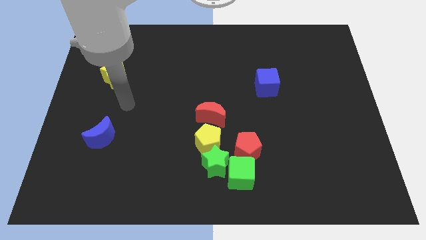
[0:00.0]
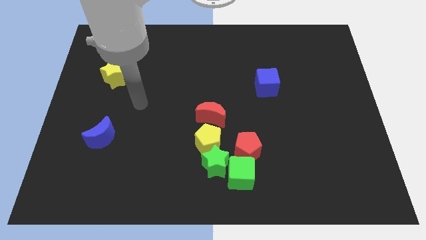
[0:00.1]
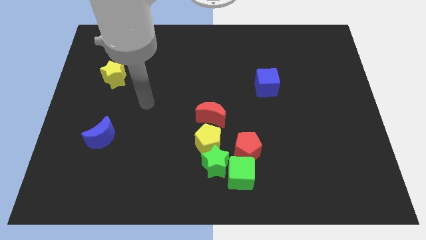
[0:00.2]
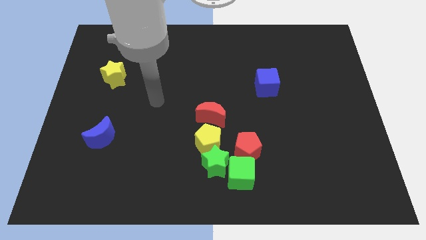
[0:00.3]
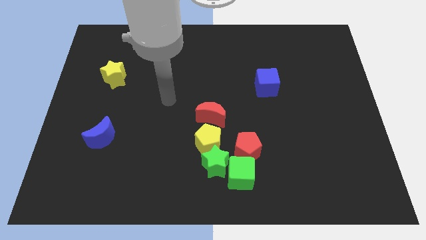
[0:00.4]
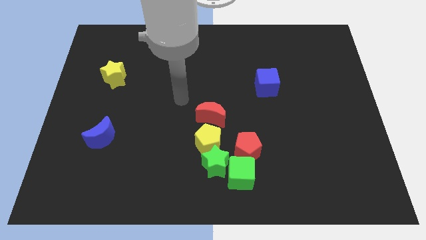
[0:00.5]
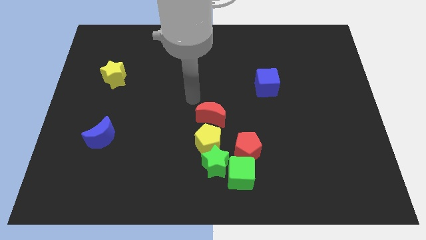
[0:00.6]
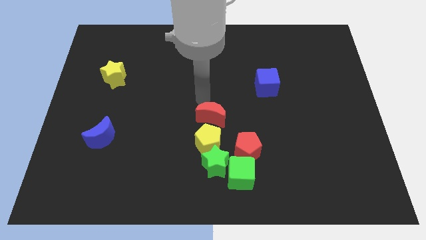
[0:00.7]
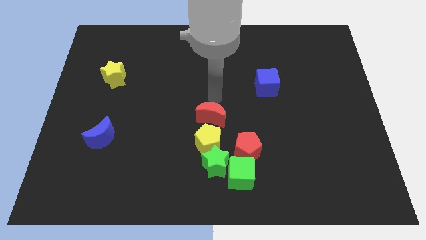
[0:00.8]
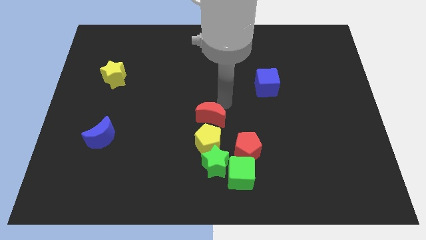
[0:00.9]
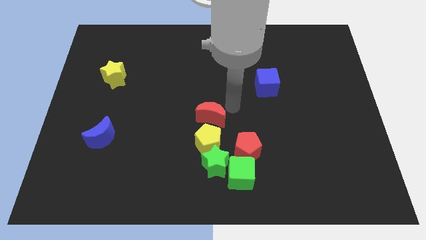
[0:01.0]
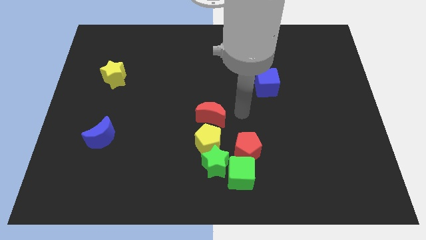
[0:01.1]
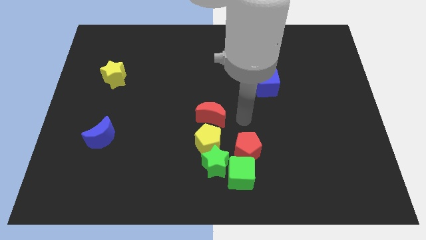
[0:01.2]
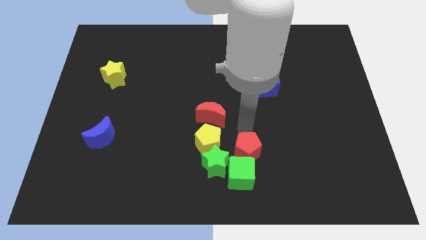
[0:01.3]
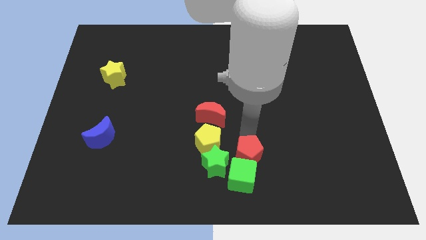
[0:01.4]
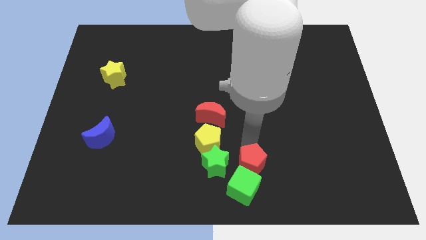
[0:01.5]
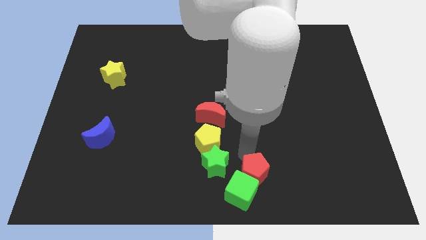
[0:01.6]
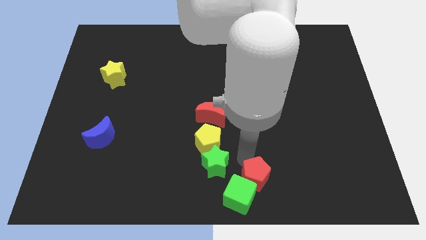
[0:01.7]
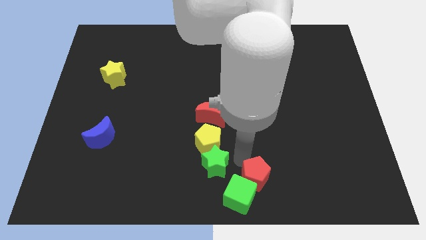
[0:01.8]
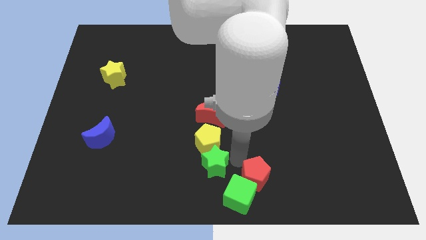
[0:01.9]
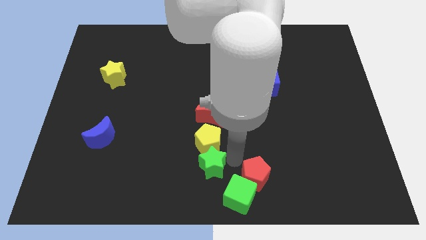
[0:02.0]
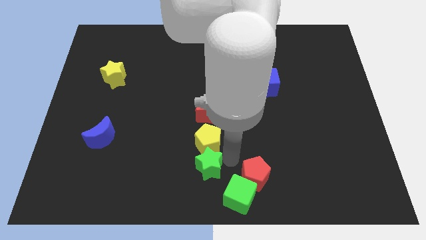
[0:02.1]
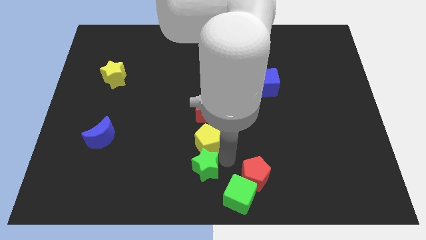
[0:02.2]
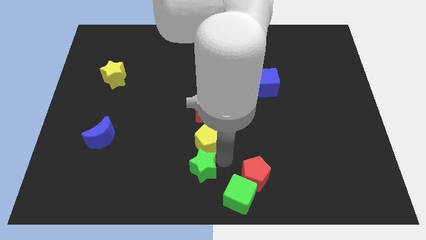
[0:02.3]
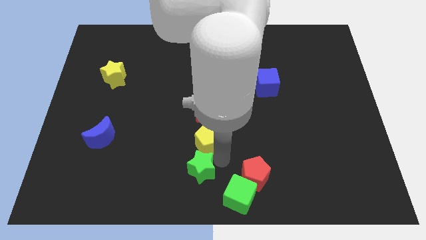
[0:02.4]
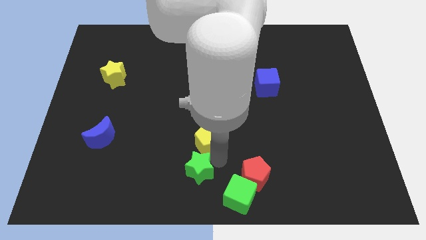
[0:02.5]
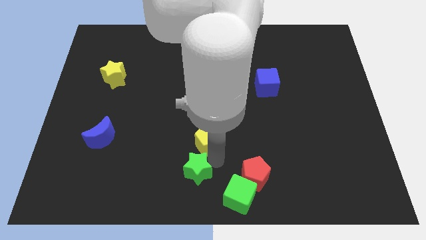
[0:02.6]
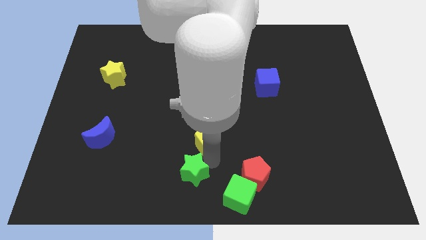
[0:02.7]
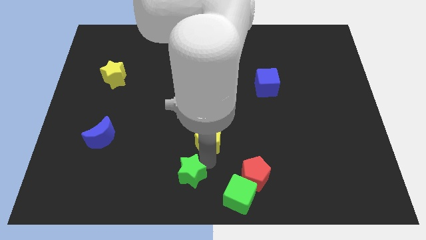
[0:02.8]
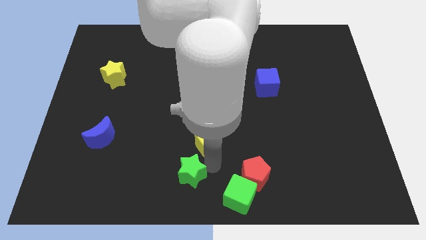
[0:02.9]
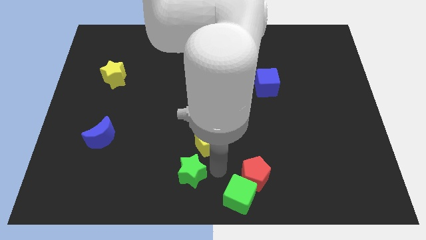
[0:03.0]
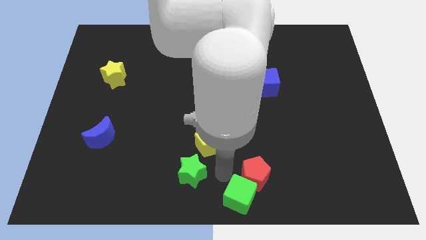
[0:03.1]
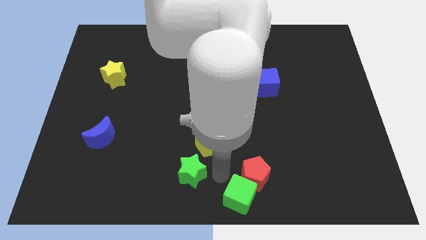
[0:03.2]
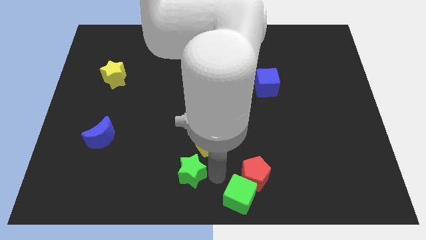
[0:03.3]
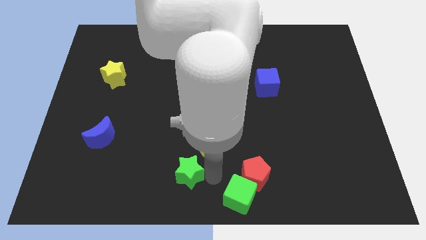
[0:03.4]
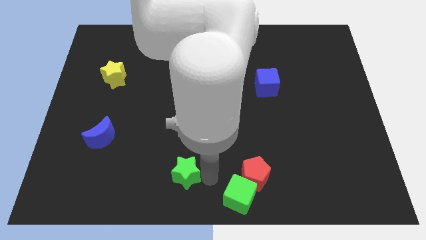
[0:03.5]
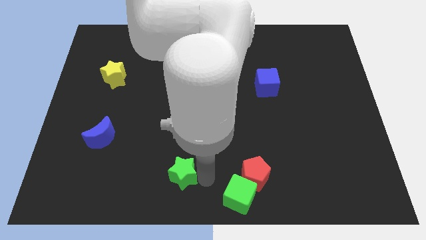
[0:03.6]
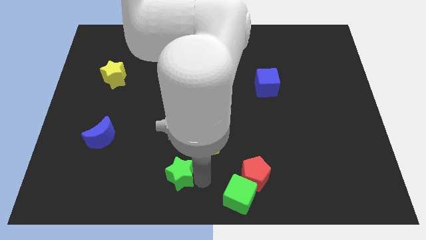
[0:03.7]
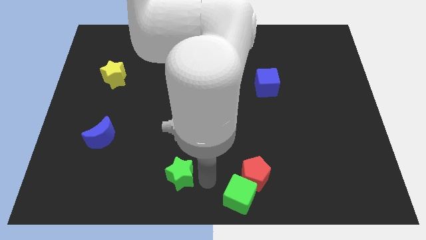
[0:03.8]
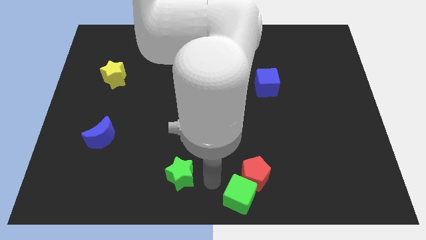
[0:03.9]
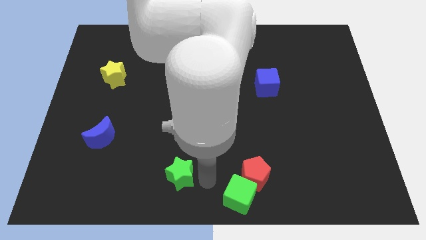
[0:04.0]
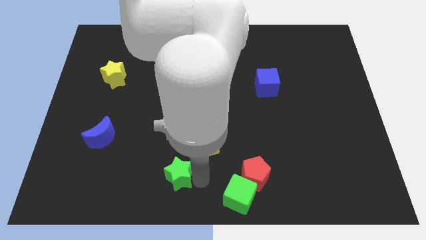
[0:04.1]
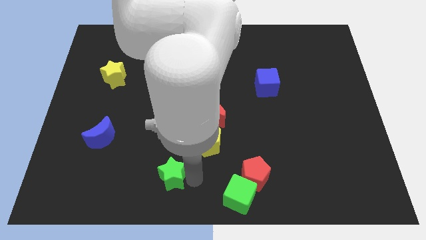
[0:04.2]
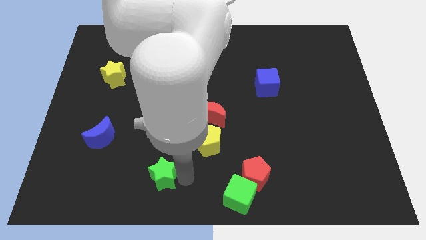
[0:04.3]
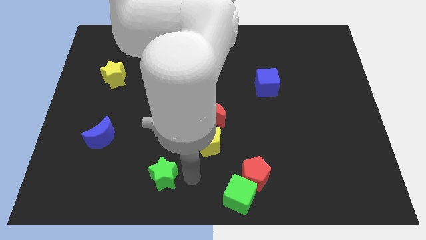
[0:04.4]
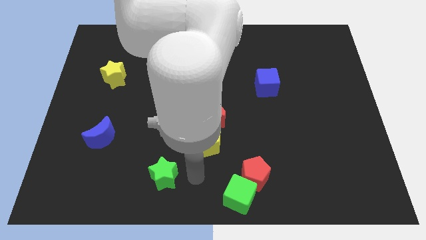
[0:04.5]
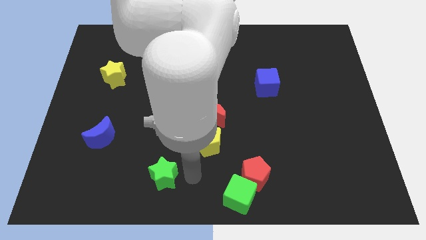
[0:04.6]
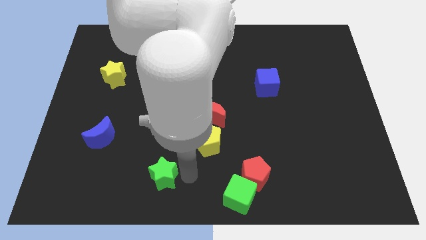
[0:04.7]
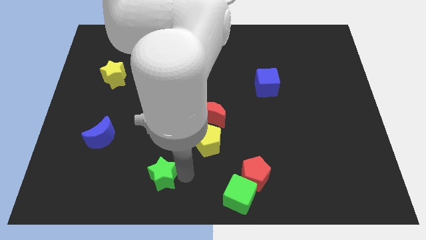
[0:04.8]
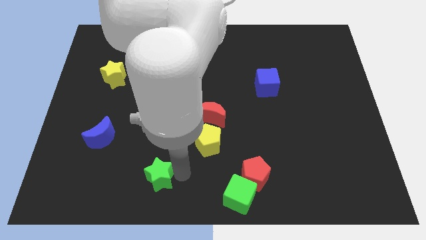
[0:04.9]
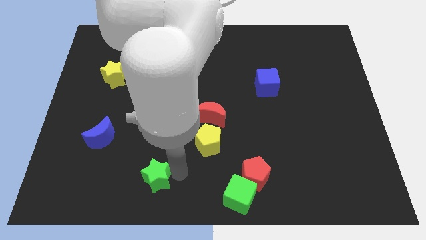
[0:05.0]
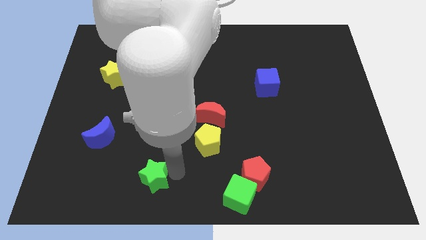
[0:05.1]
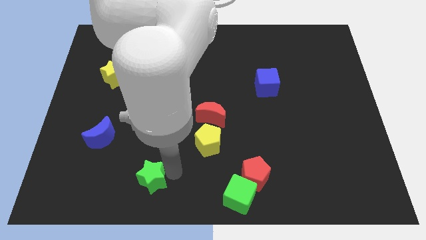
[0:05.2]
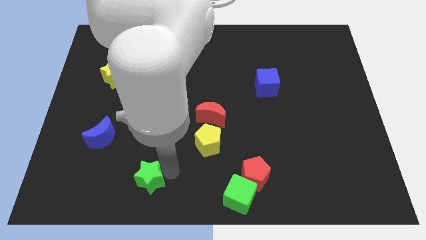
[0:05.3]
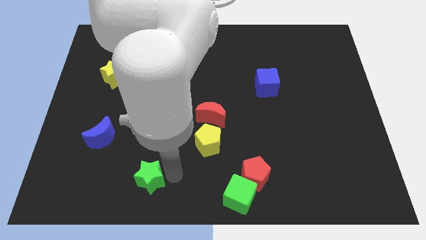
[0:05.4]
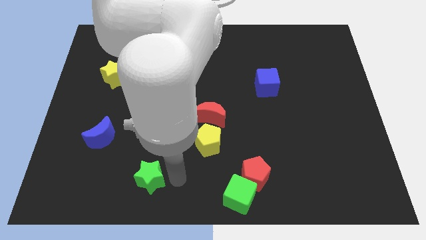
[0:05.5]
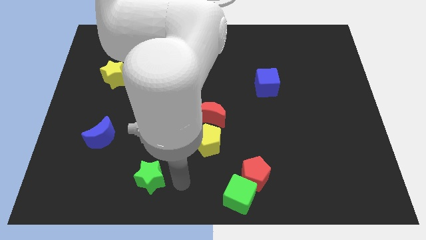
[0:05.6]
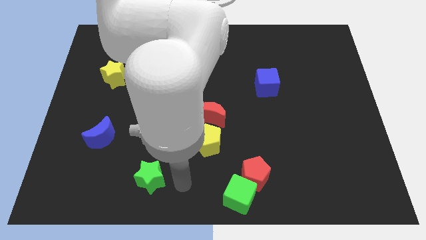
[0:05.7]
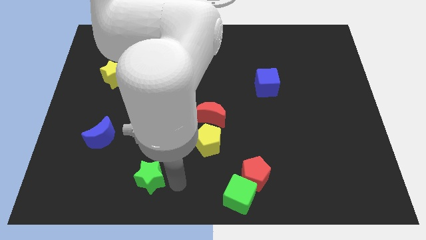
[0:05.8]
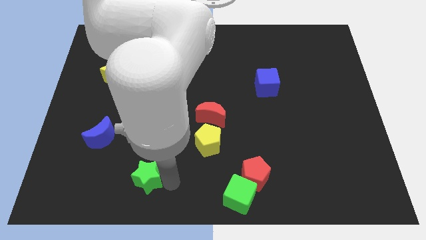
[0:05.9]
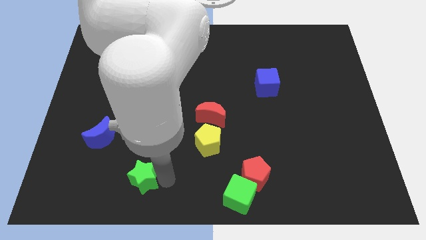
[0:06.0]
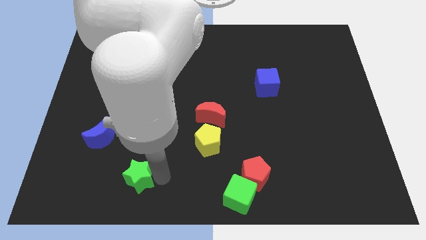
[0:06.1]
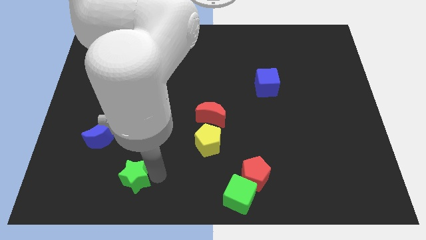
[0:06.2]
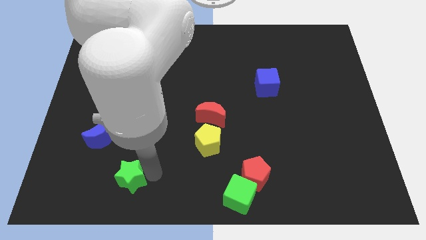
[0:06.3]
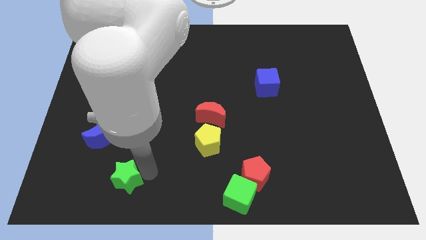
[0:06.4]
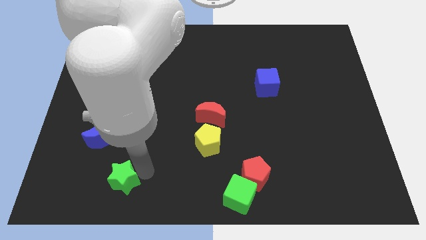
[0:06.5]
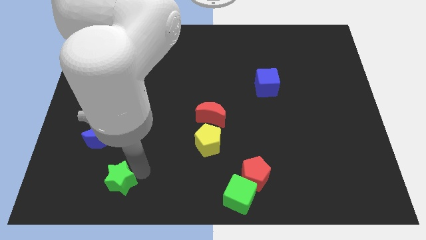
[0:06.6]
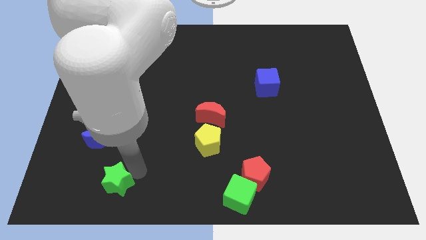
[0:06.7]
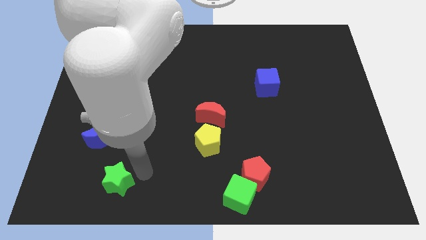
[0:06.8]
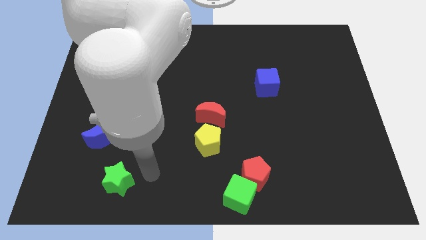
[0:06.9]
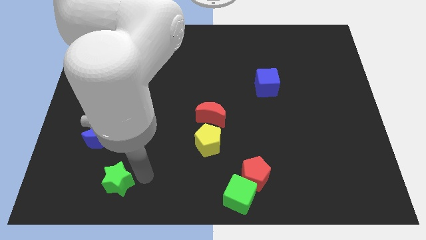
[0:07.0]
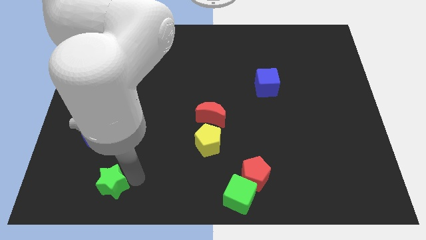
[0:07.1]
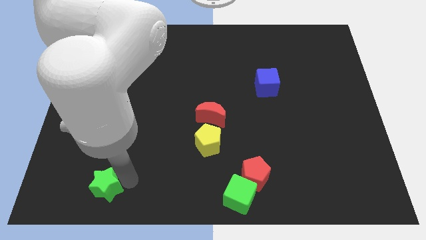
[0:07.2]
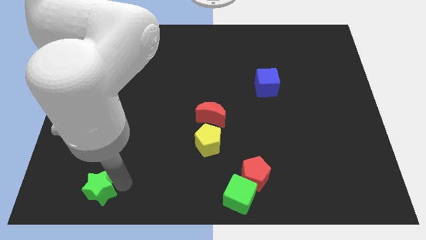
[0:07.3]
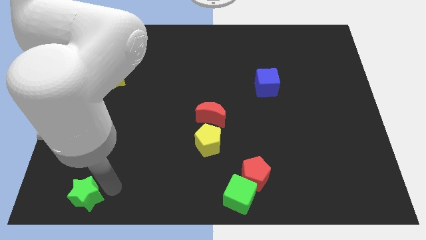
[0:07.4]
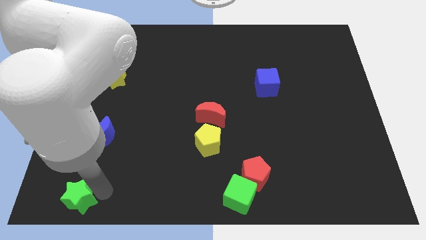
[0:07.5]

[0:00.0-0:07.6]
push the green star to the bottom left

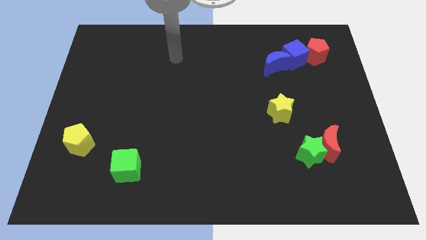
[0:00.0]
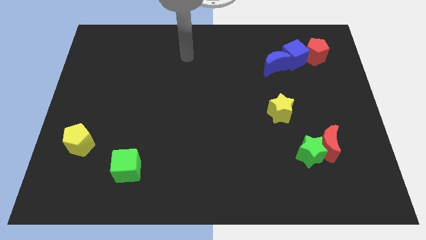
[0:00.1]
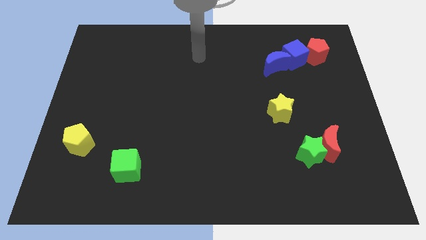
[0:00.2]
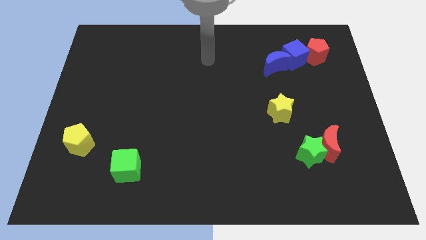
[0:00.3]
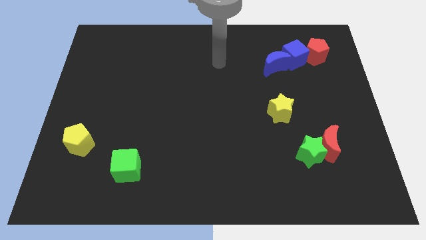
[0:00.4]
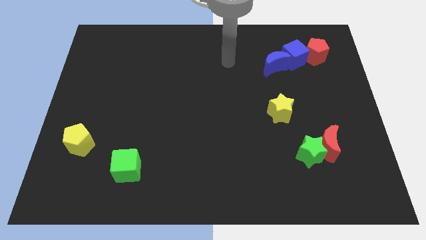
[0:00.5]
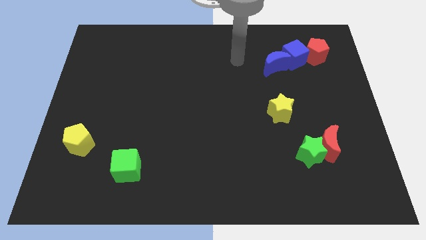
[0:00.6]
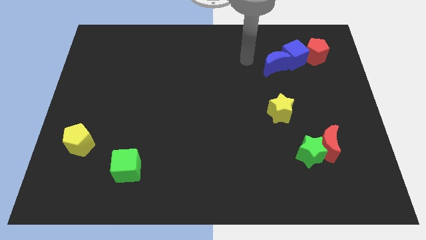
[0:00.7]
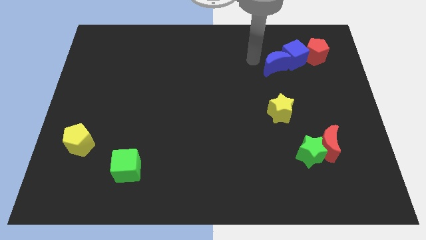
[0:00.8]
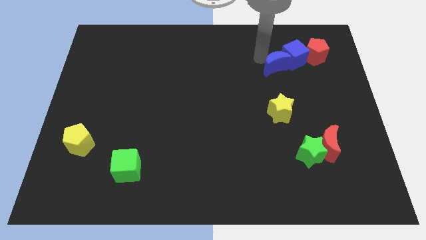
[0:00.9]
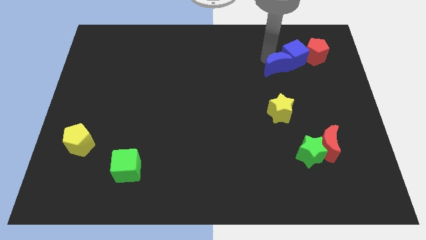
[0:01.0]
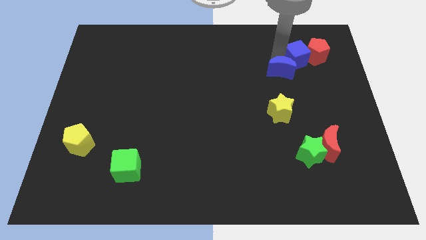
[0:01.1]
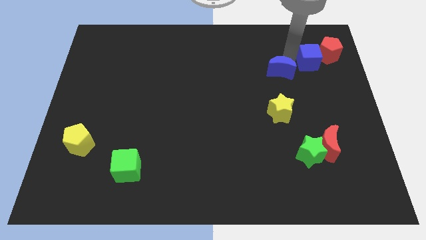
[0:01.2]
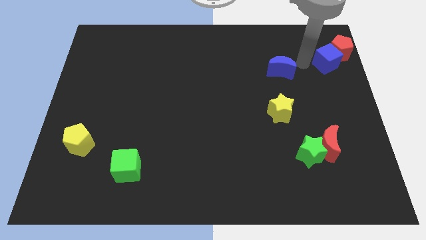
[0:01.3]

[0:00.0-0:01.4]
put the red pentagon to the top right corner
